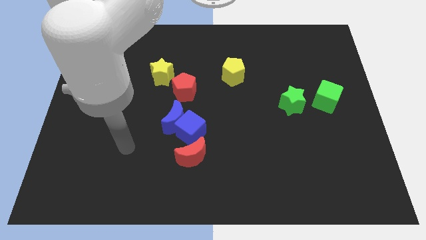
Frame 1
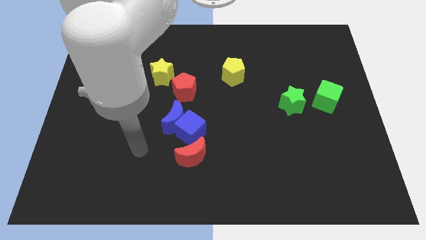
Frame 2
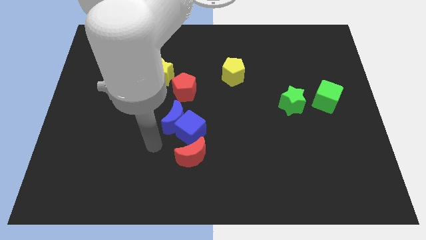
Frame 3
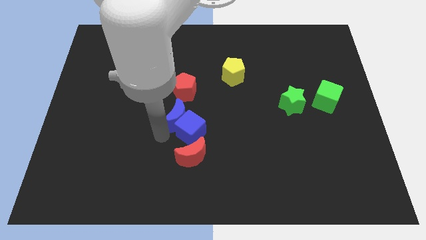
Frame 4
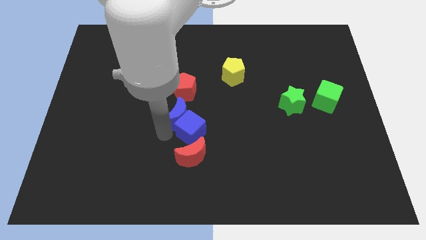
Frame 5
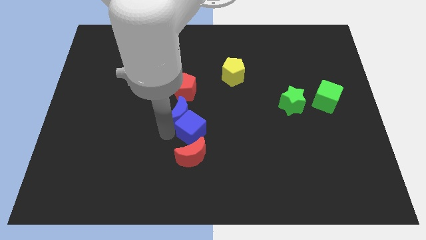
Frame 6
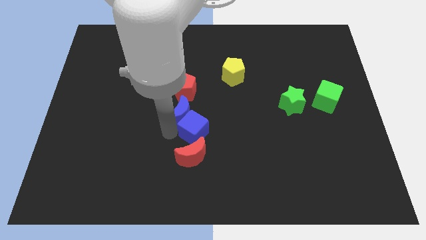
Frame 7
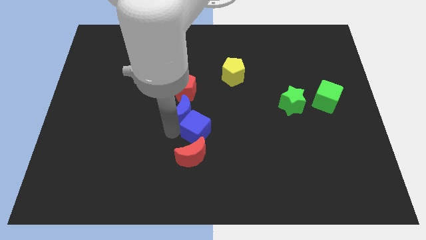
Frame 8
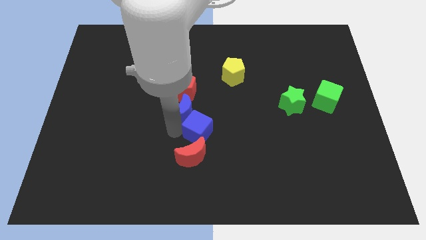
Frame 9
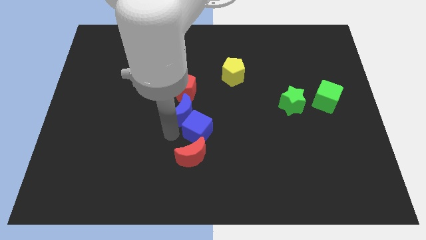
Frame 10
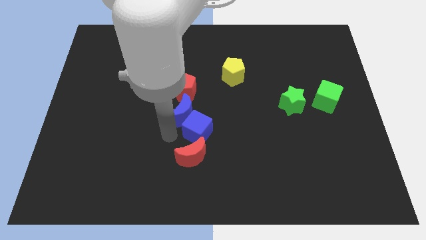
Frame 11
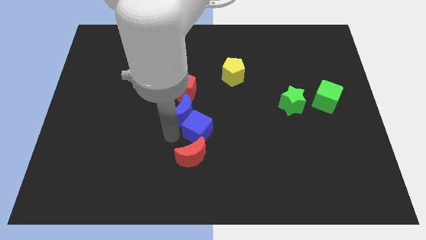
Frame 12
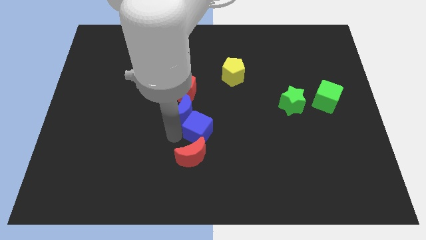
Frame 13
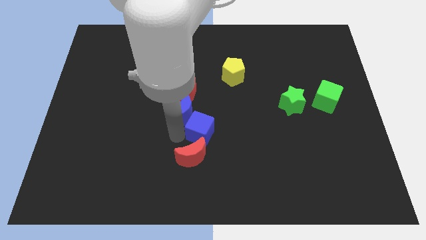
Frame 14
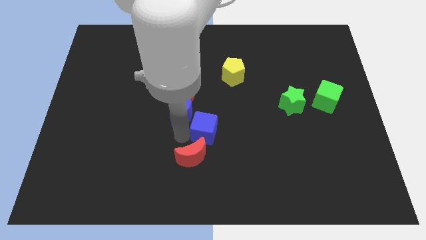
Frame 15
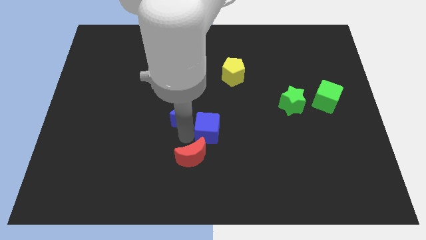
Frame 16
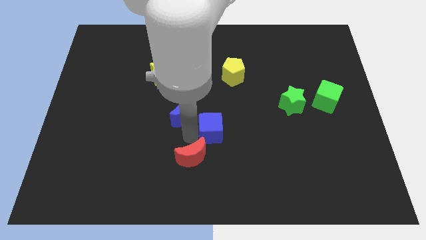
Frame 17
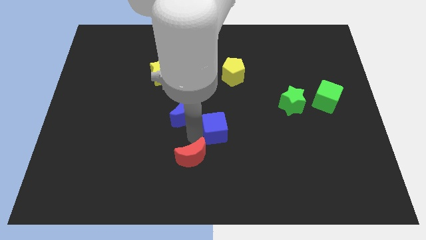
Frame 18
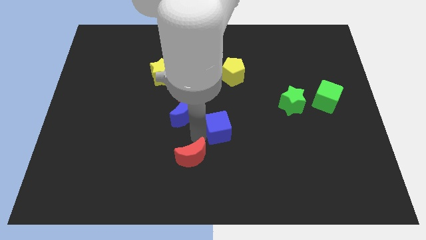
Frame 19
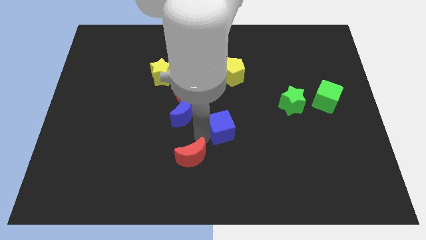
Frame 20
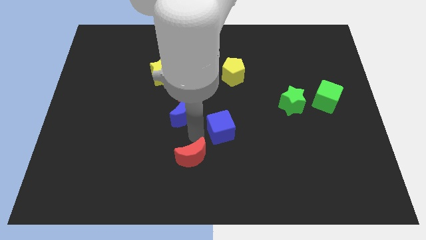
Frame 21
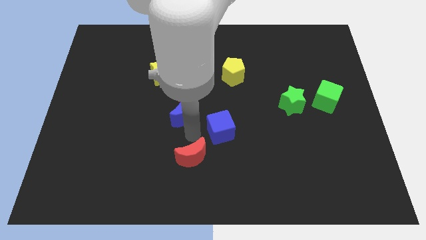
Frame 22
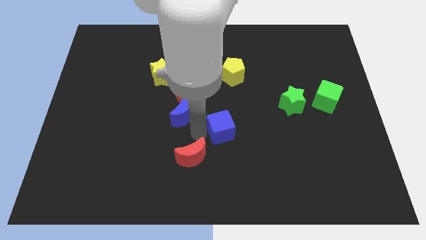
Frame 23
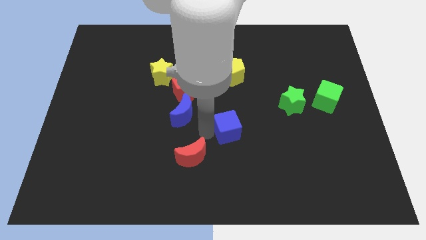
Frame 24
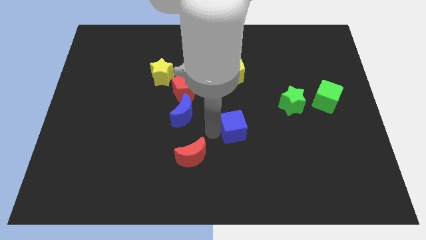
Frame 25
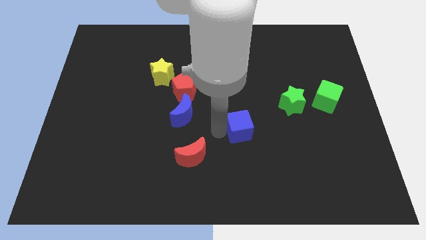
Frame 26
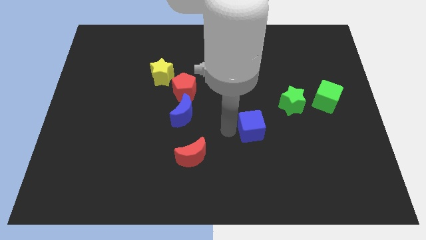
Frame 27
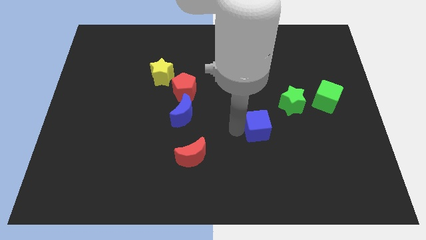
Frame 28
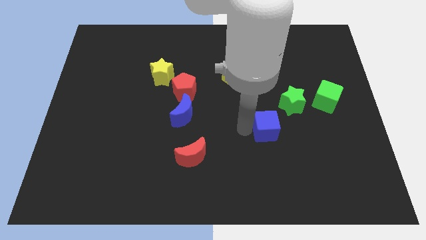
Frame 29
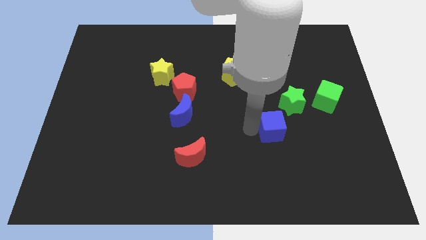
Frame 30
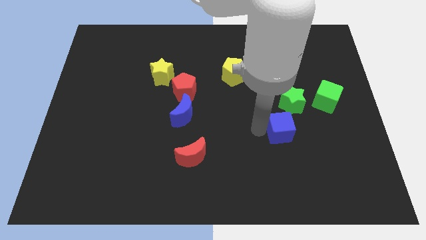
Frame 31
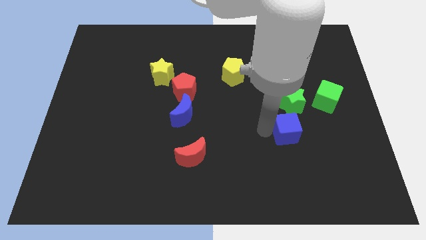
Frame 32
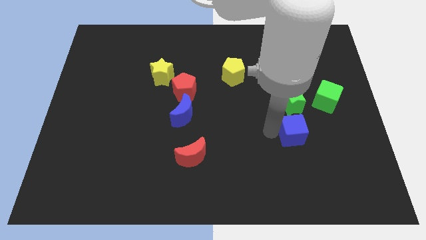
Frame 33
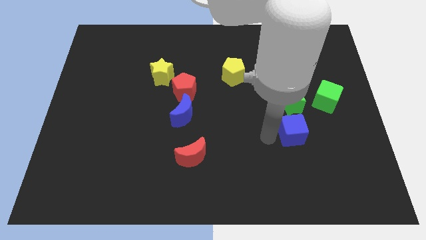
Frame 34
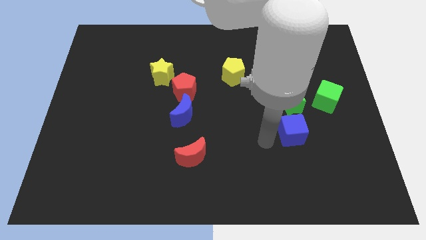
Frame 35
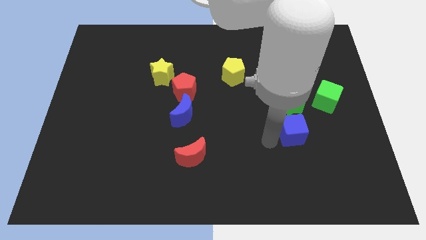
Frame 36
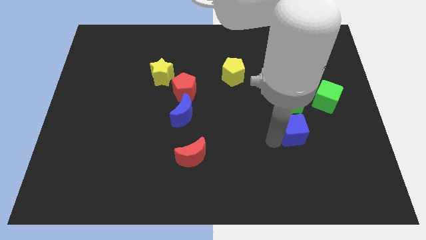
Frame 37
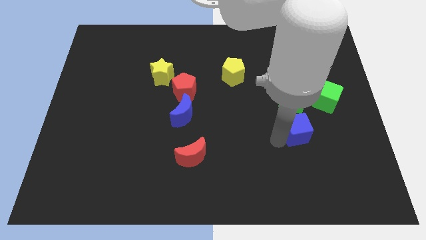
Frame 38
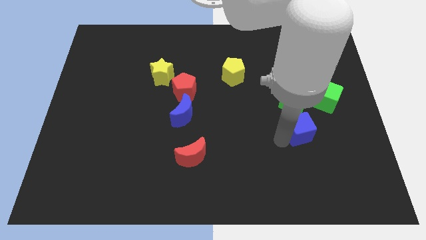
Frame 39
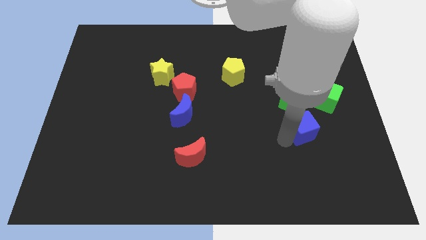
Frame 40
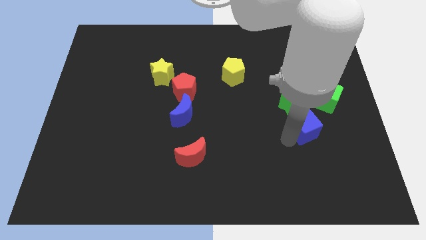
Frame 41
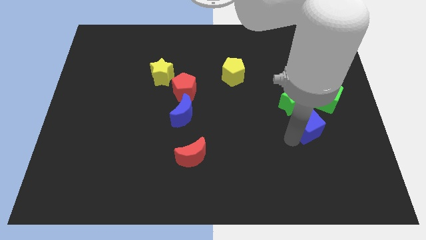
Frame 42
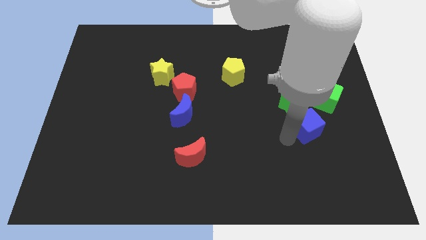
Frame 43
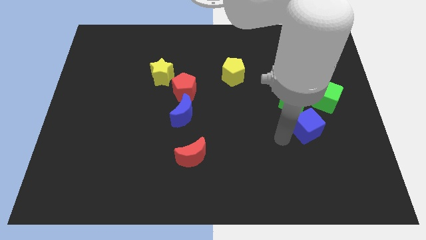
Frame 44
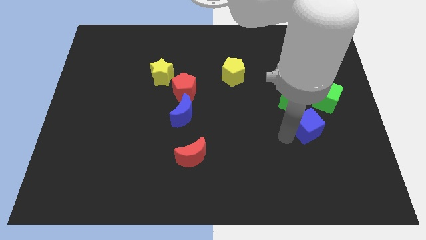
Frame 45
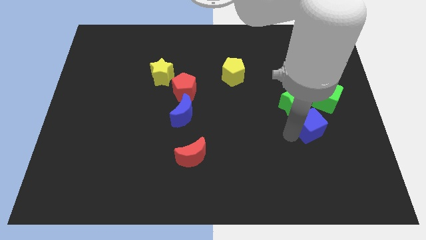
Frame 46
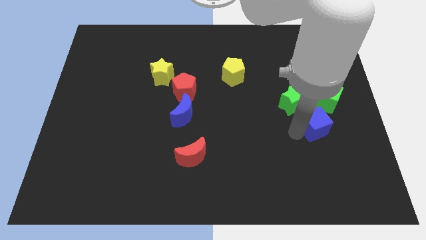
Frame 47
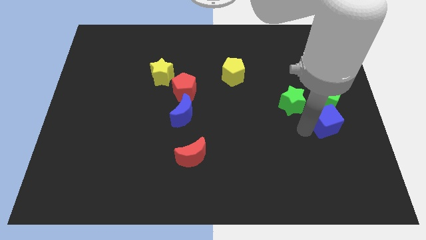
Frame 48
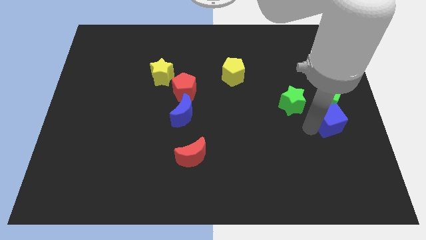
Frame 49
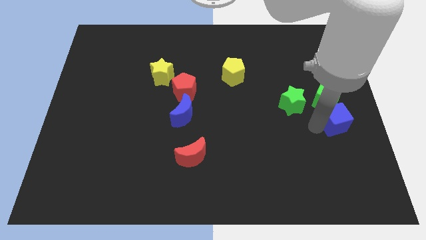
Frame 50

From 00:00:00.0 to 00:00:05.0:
move the blue cube to the center right

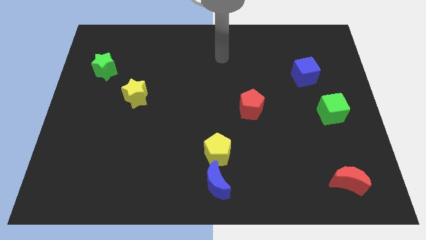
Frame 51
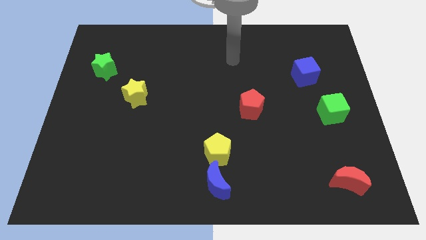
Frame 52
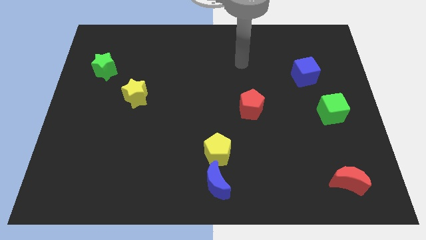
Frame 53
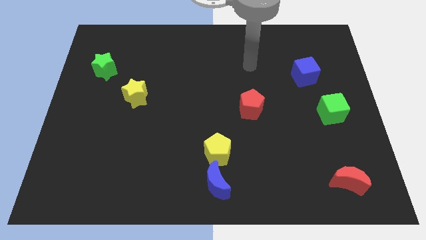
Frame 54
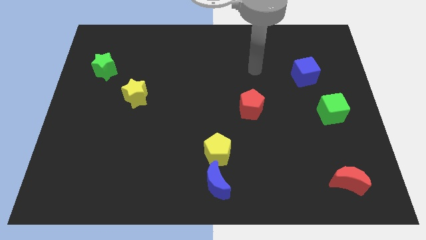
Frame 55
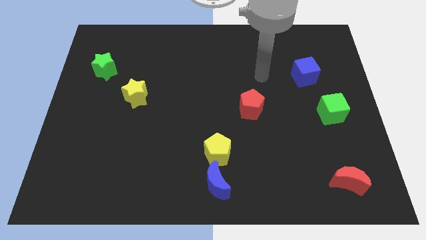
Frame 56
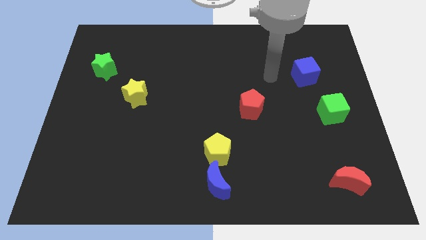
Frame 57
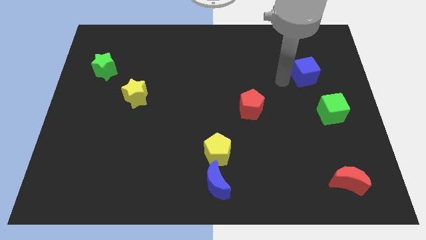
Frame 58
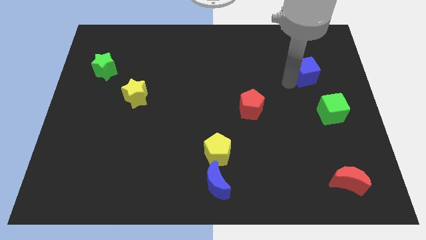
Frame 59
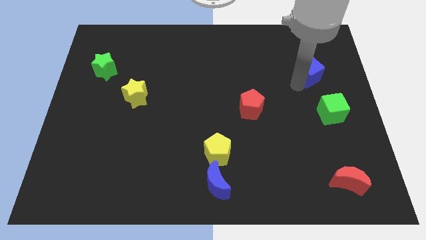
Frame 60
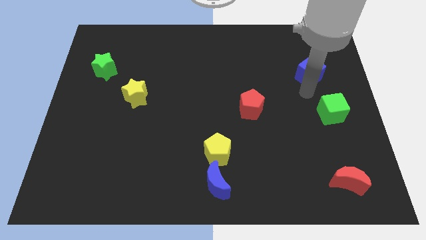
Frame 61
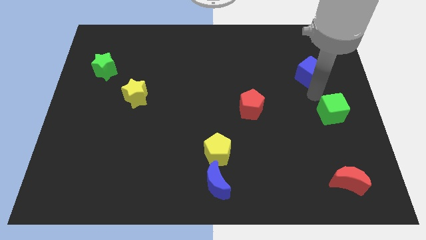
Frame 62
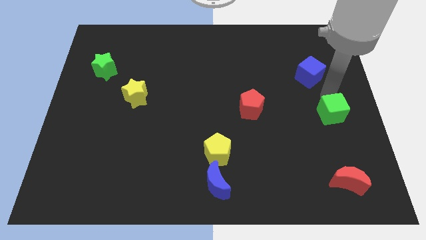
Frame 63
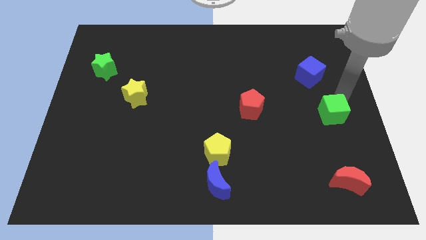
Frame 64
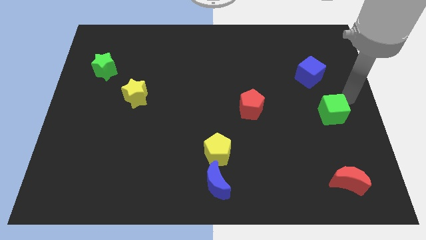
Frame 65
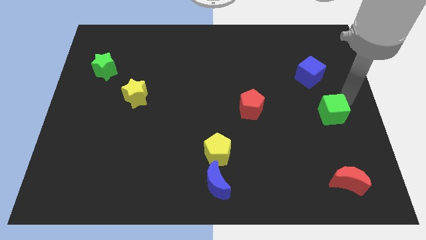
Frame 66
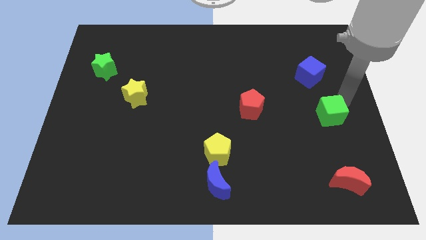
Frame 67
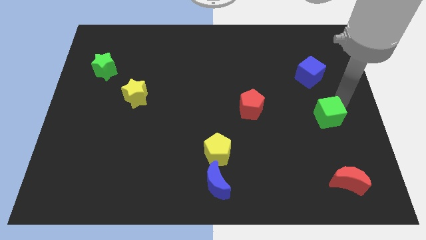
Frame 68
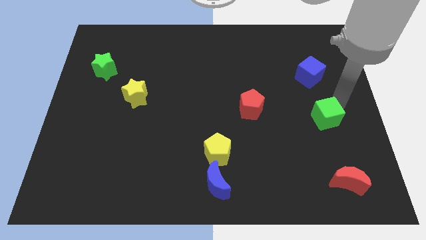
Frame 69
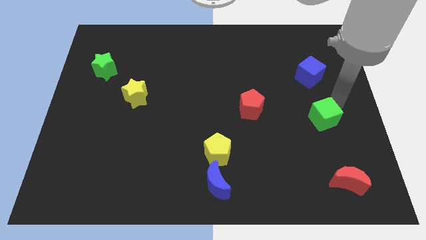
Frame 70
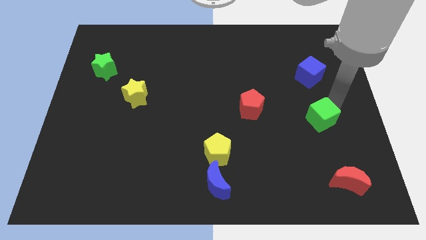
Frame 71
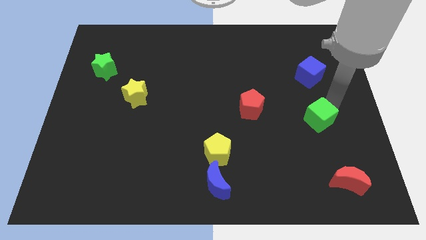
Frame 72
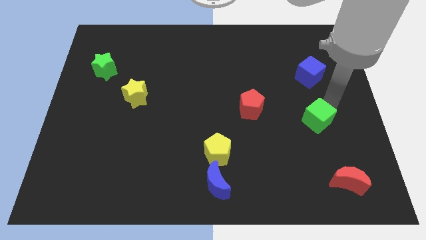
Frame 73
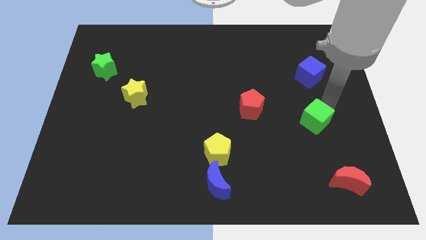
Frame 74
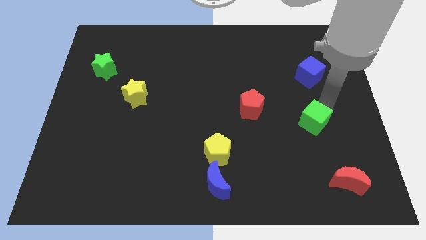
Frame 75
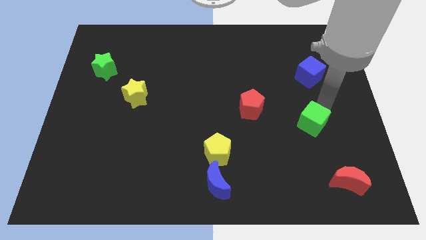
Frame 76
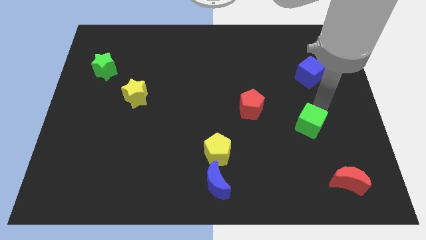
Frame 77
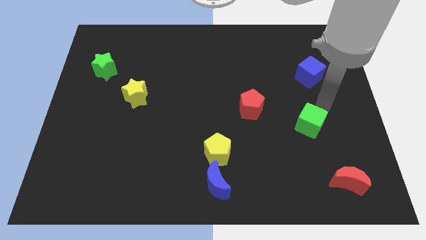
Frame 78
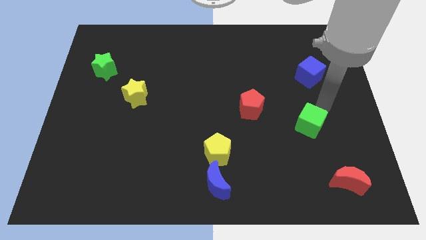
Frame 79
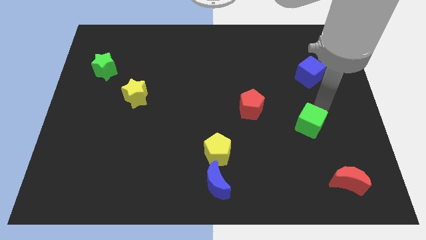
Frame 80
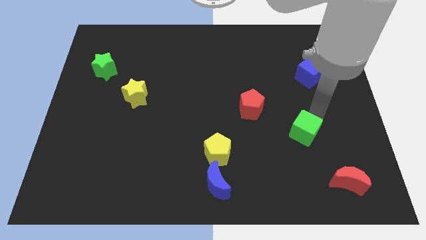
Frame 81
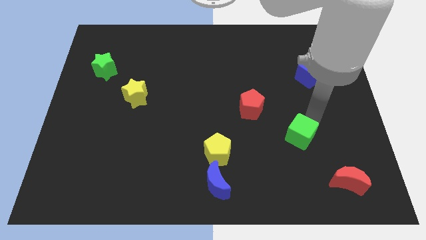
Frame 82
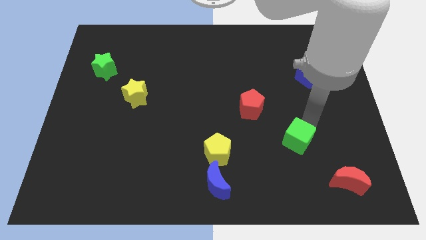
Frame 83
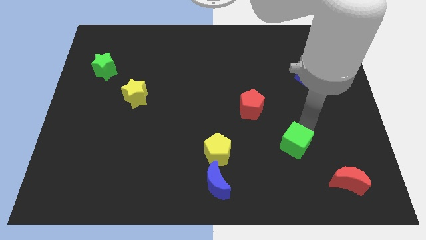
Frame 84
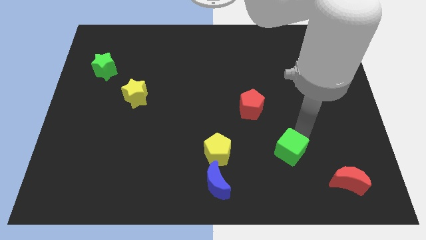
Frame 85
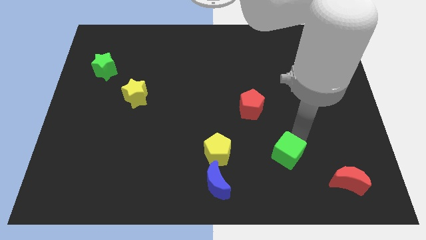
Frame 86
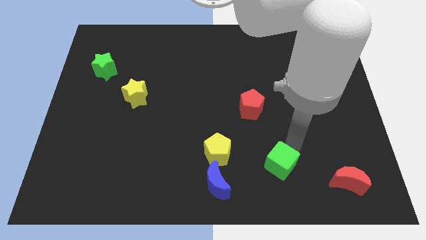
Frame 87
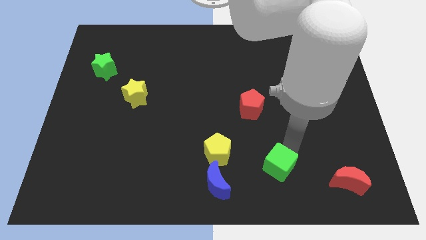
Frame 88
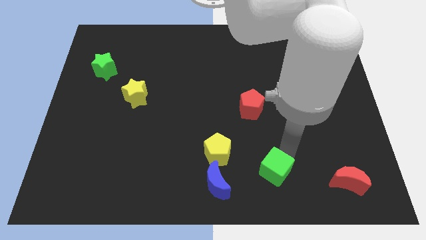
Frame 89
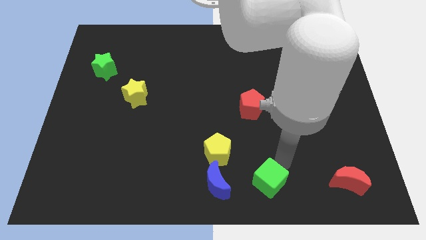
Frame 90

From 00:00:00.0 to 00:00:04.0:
put the green cube to the bottom side
